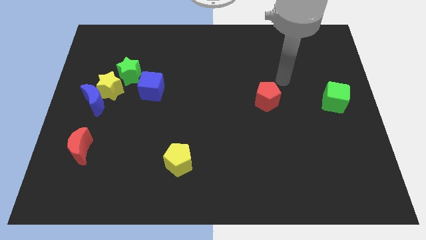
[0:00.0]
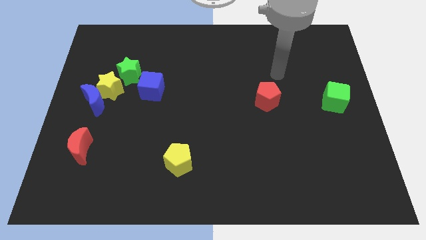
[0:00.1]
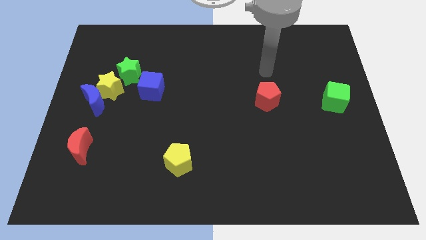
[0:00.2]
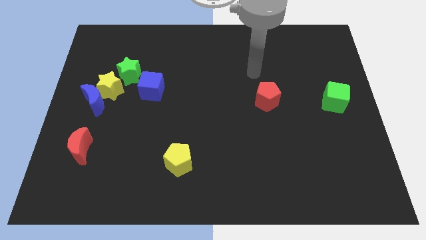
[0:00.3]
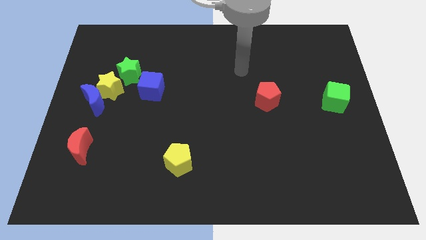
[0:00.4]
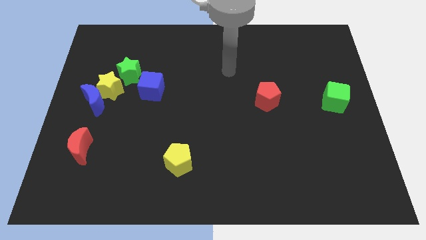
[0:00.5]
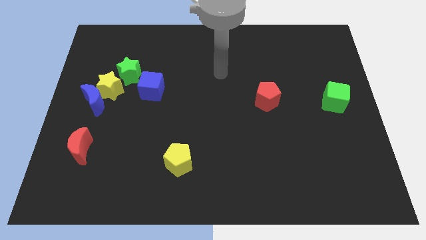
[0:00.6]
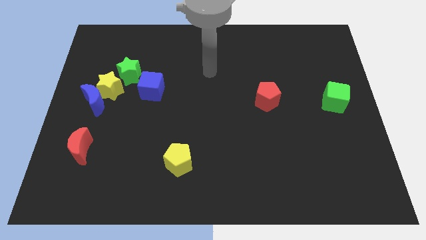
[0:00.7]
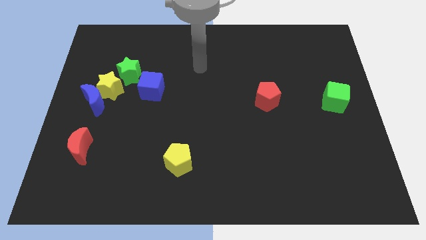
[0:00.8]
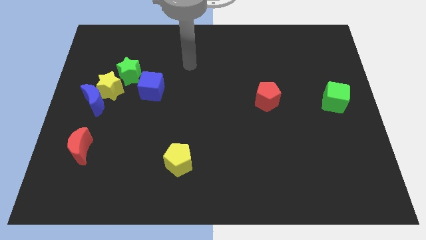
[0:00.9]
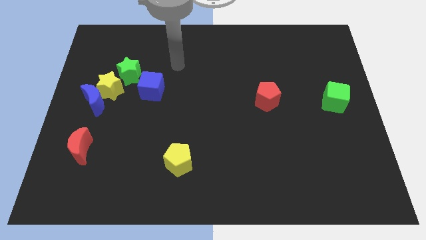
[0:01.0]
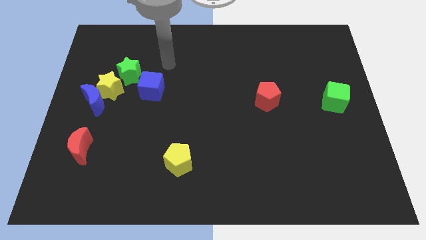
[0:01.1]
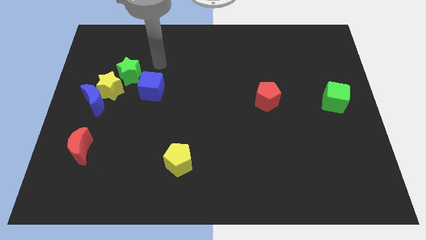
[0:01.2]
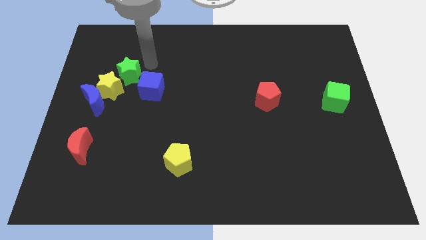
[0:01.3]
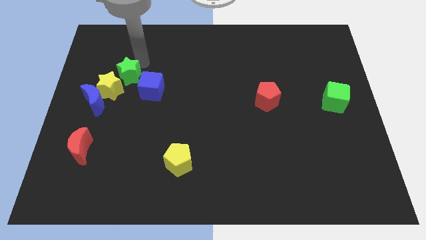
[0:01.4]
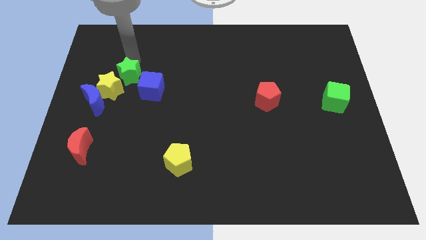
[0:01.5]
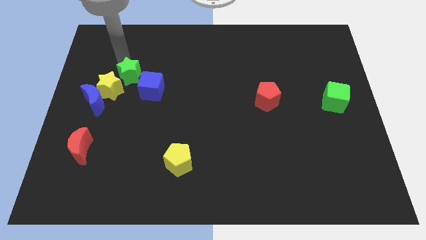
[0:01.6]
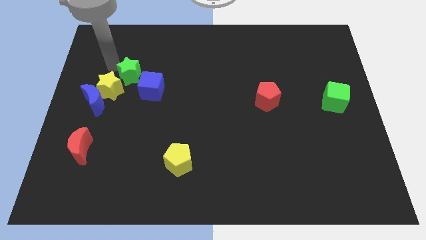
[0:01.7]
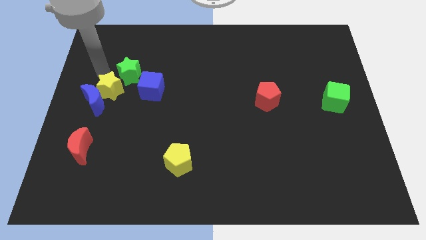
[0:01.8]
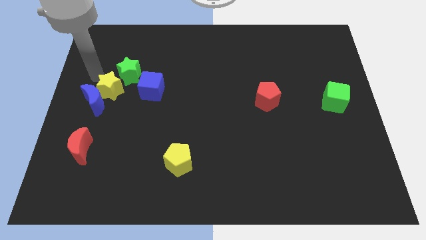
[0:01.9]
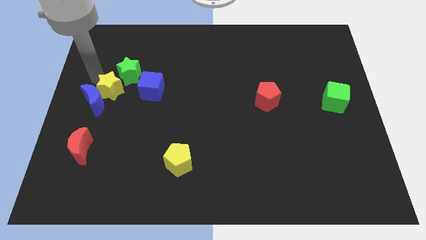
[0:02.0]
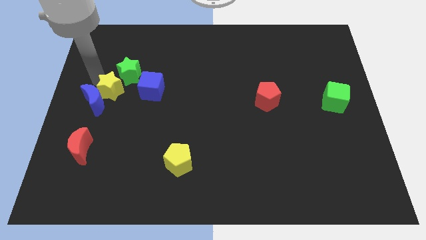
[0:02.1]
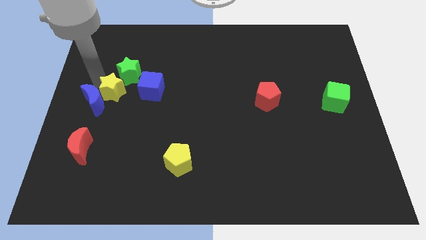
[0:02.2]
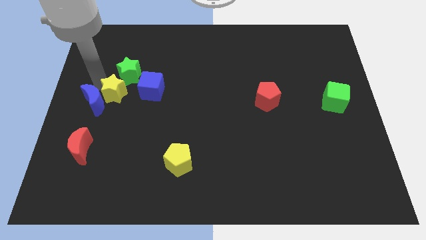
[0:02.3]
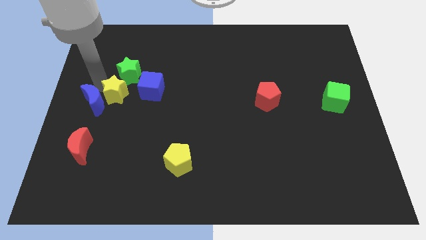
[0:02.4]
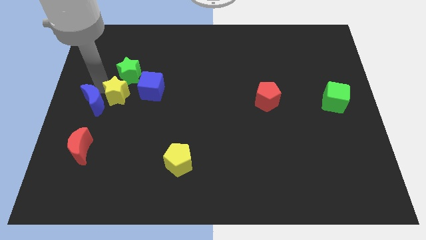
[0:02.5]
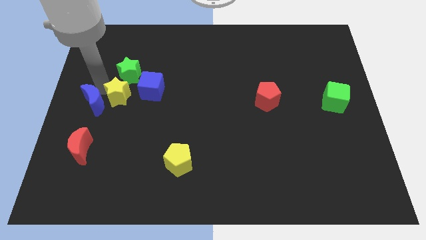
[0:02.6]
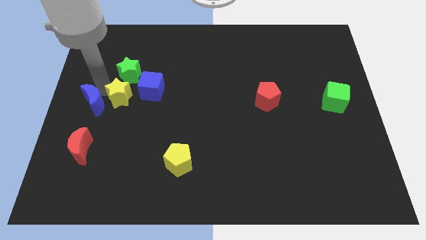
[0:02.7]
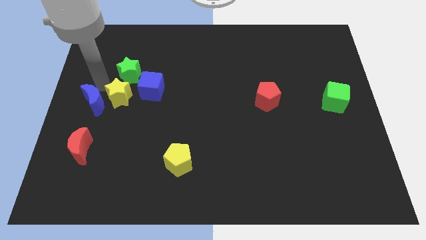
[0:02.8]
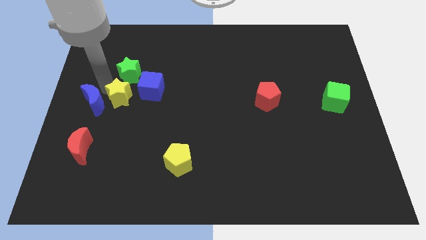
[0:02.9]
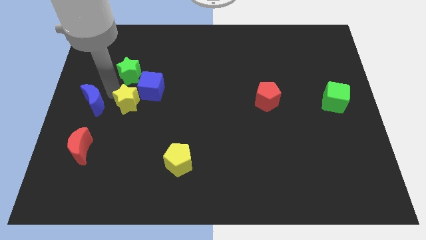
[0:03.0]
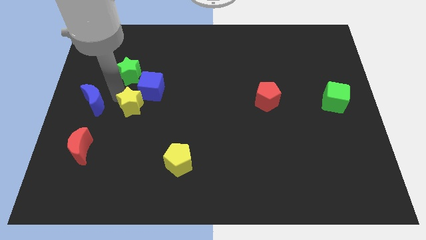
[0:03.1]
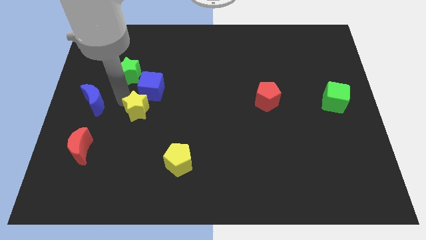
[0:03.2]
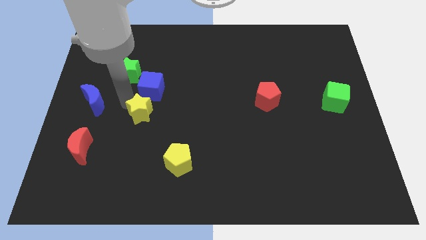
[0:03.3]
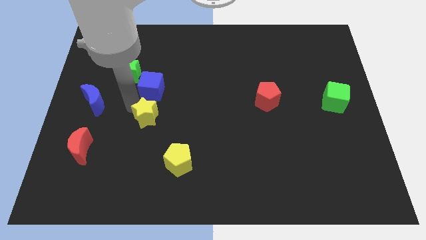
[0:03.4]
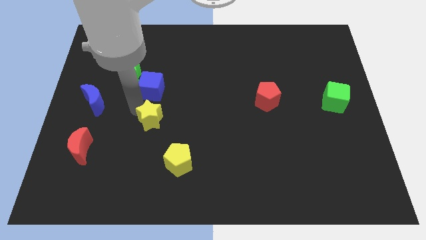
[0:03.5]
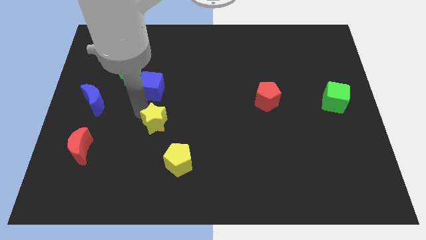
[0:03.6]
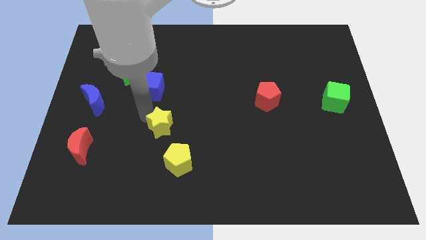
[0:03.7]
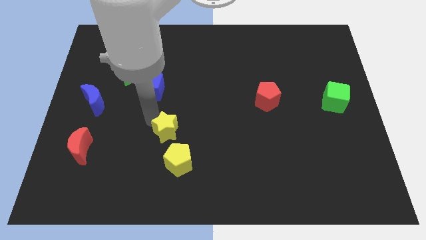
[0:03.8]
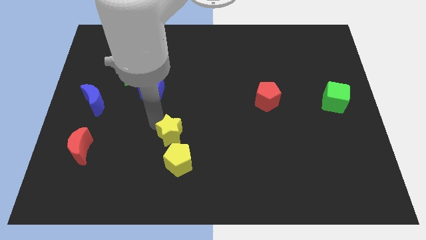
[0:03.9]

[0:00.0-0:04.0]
move the yellow star down and then to the right

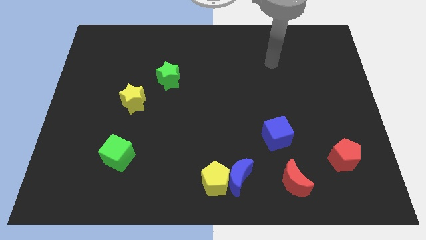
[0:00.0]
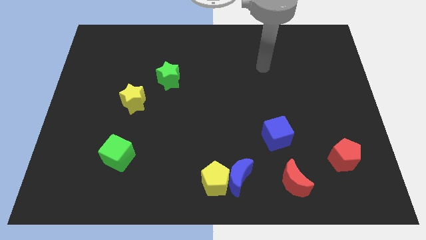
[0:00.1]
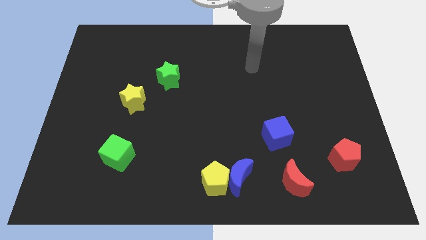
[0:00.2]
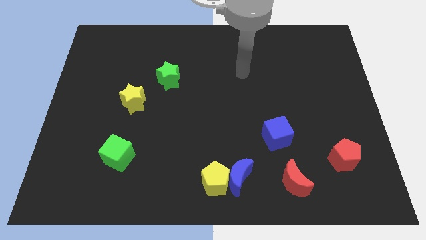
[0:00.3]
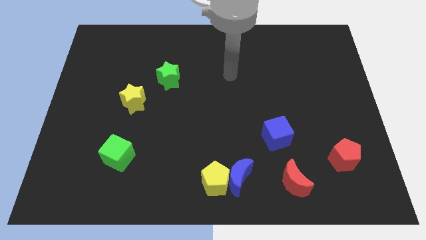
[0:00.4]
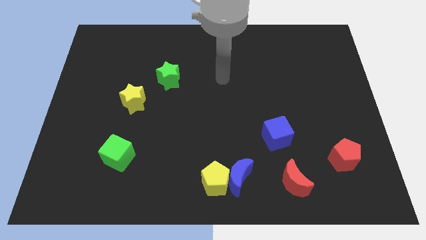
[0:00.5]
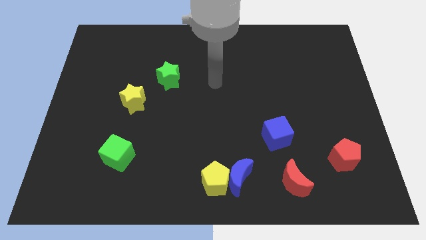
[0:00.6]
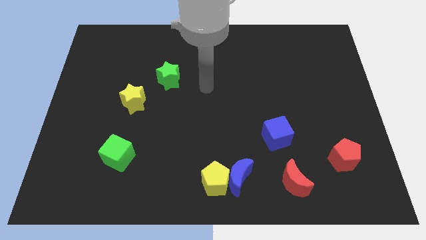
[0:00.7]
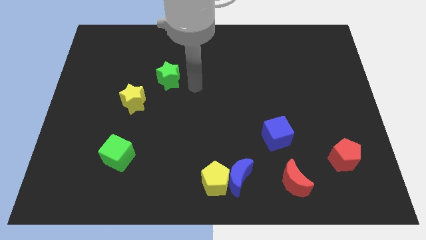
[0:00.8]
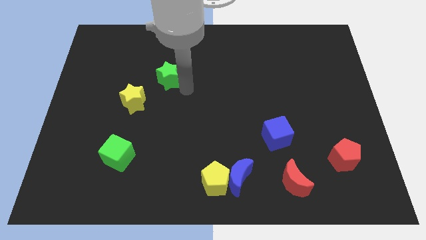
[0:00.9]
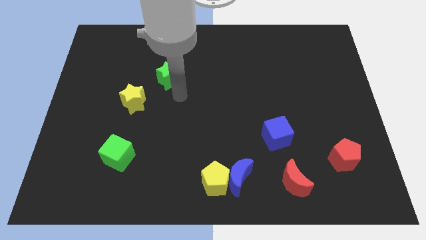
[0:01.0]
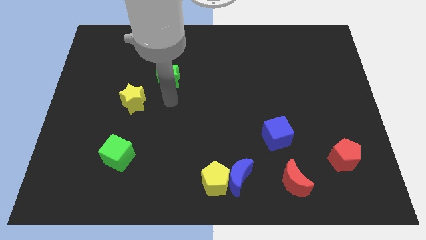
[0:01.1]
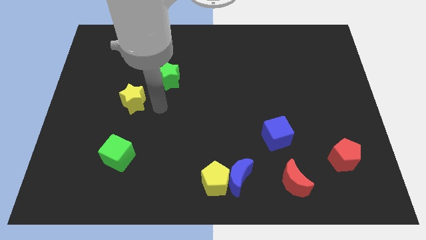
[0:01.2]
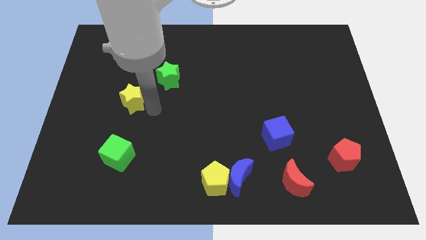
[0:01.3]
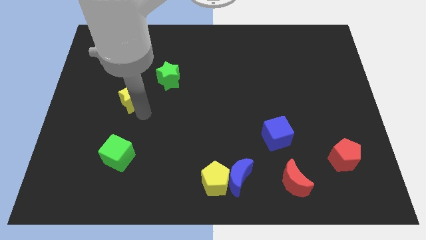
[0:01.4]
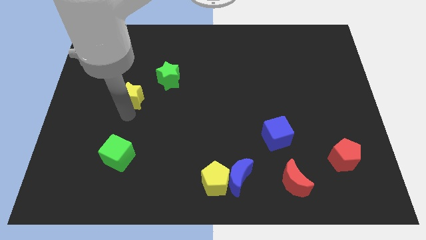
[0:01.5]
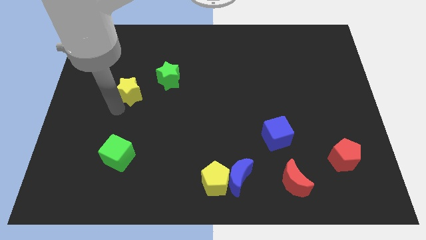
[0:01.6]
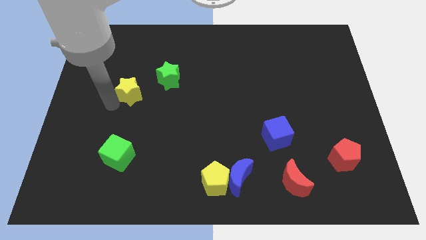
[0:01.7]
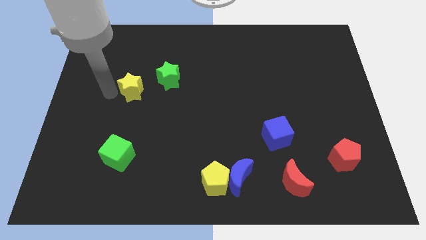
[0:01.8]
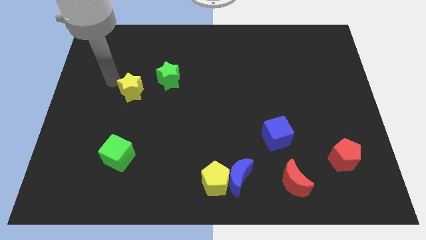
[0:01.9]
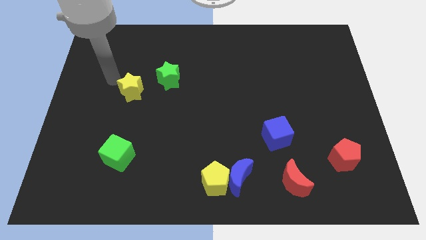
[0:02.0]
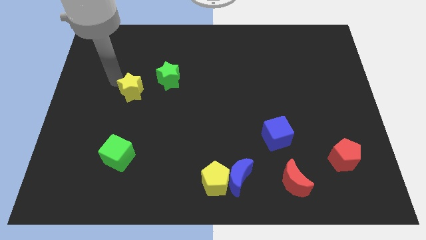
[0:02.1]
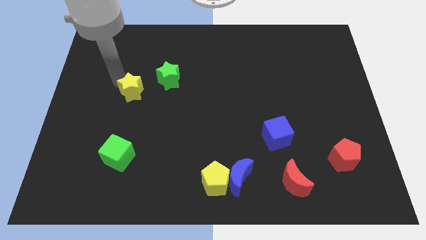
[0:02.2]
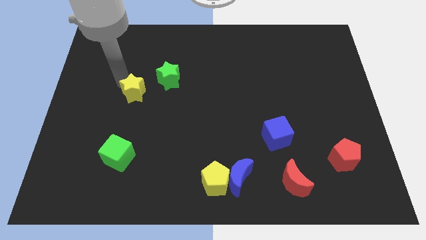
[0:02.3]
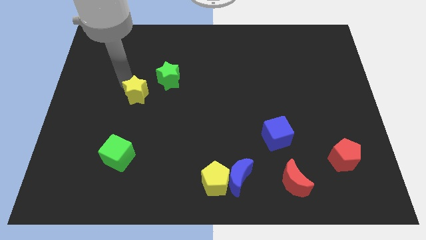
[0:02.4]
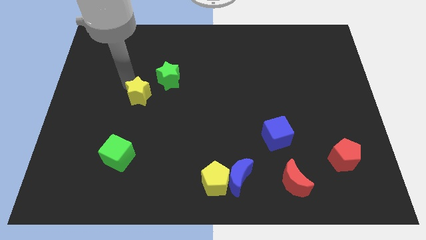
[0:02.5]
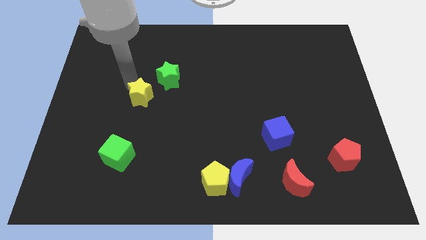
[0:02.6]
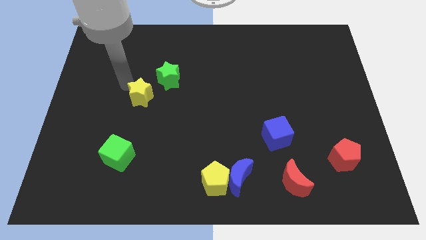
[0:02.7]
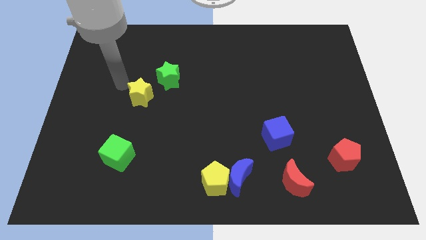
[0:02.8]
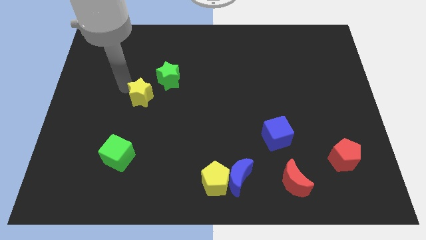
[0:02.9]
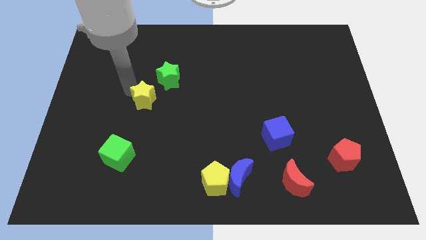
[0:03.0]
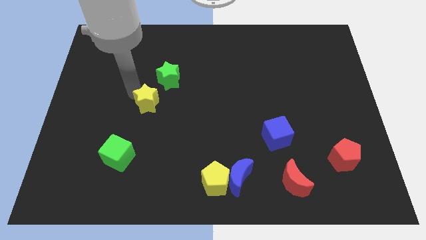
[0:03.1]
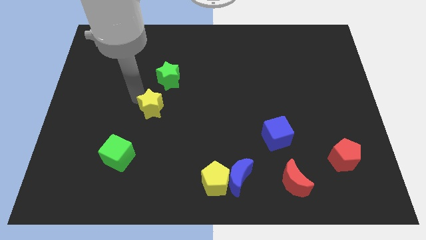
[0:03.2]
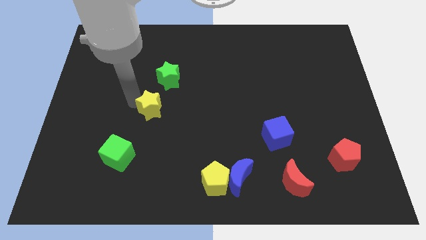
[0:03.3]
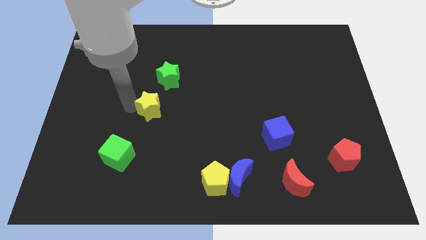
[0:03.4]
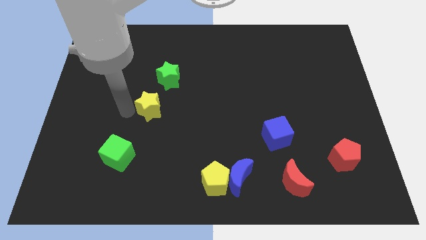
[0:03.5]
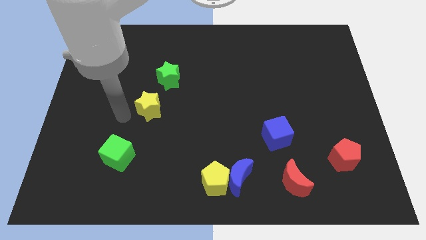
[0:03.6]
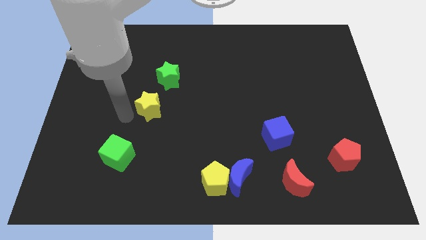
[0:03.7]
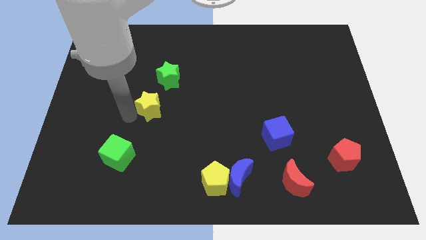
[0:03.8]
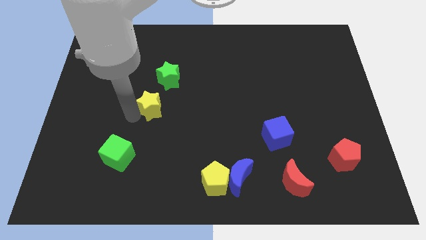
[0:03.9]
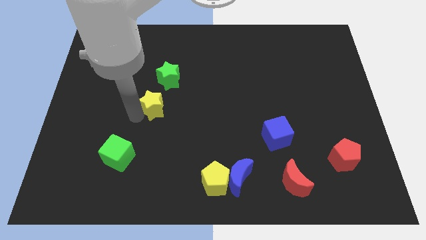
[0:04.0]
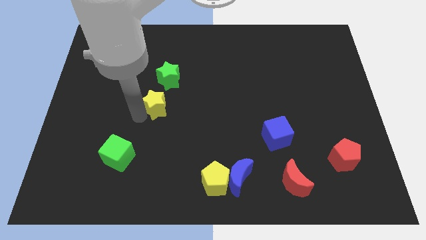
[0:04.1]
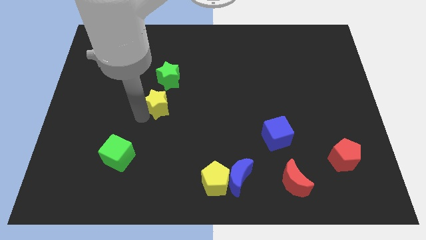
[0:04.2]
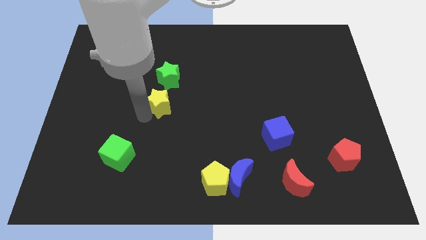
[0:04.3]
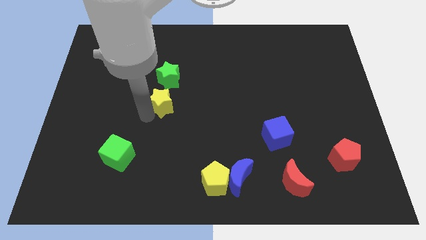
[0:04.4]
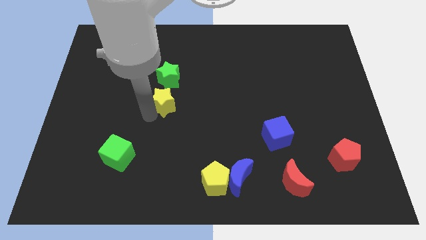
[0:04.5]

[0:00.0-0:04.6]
slide the yellow star right a little
